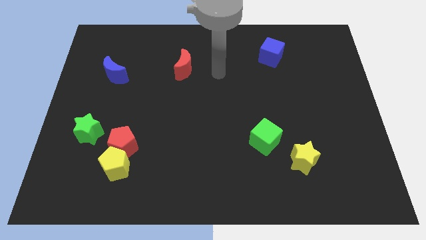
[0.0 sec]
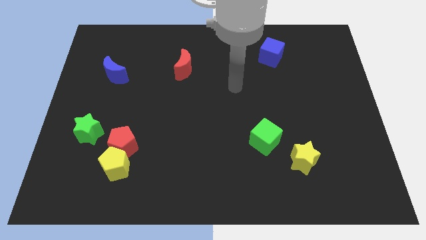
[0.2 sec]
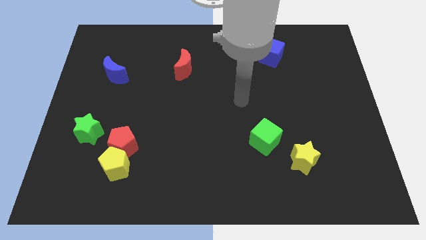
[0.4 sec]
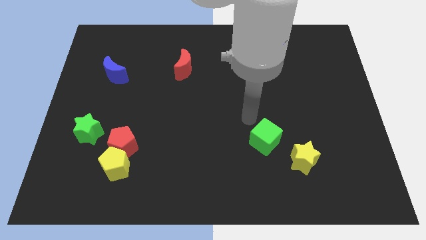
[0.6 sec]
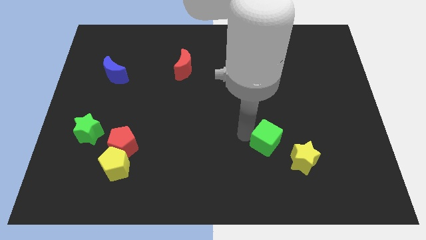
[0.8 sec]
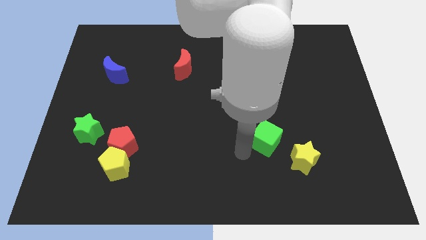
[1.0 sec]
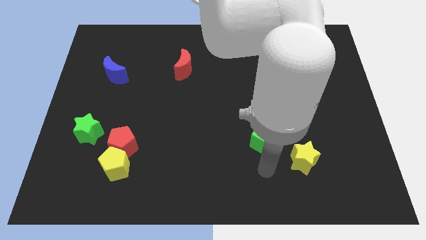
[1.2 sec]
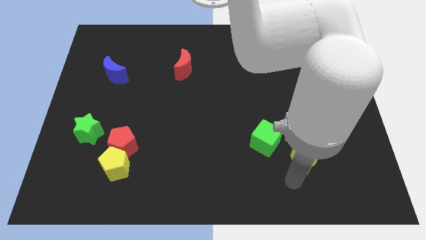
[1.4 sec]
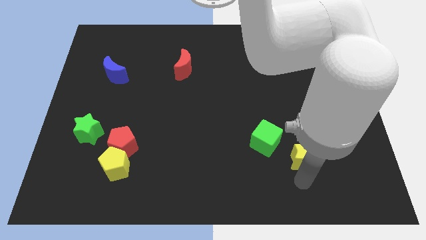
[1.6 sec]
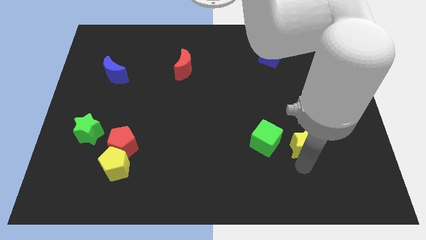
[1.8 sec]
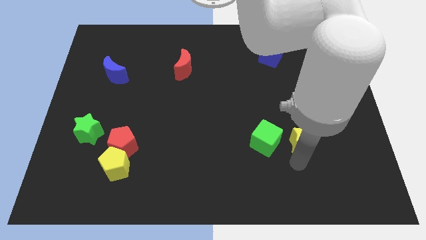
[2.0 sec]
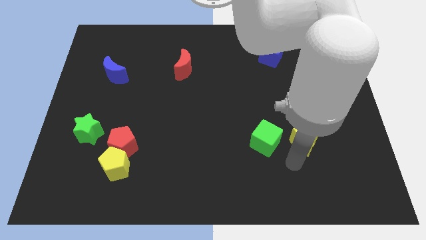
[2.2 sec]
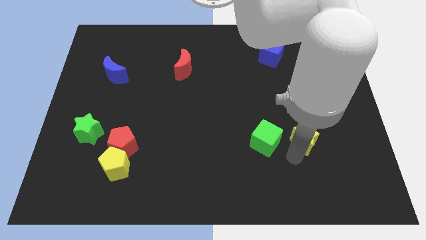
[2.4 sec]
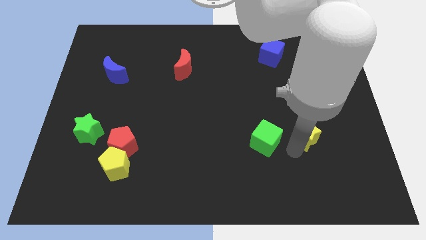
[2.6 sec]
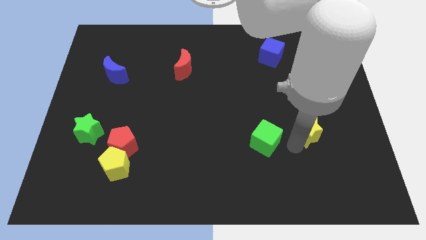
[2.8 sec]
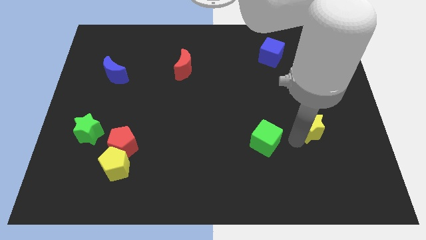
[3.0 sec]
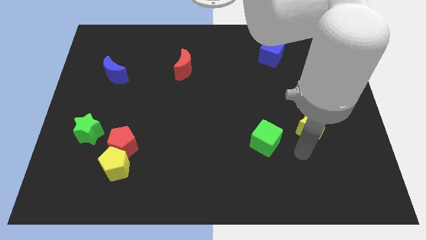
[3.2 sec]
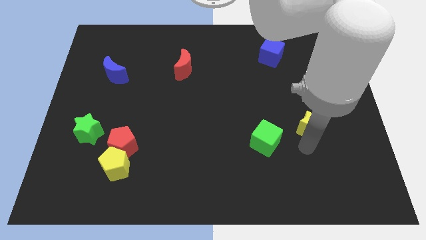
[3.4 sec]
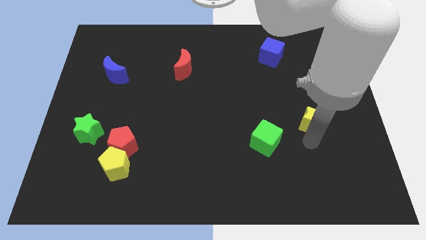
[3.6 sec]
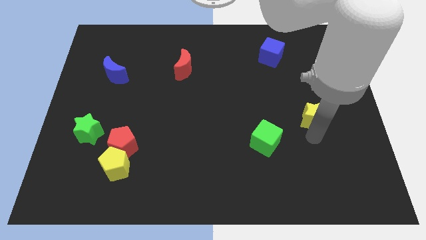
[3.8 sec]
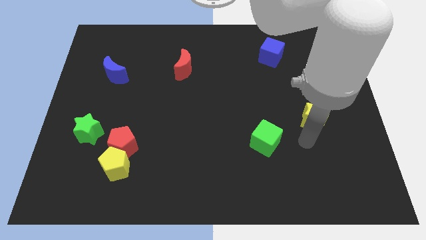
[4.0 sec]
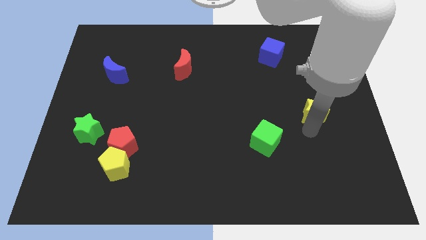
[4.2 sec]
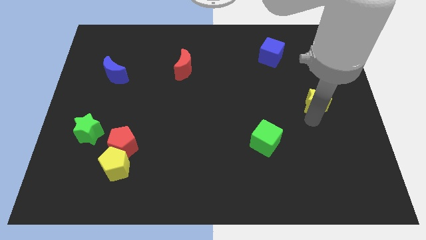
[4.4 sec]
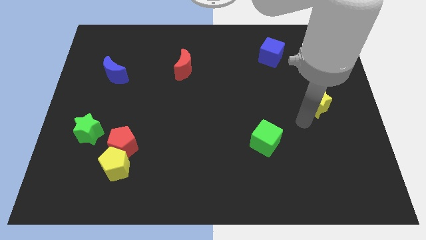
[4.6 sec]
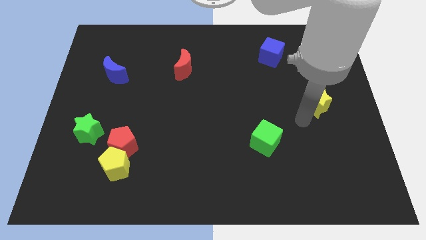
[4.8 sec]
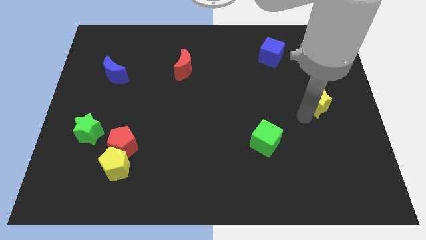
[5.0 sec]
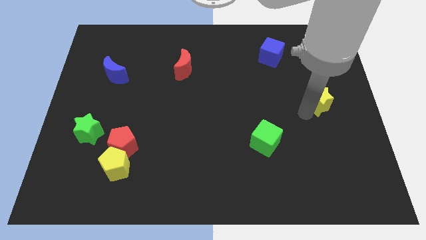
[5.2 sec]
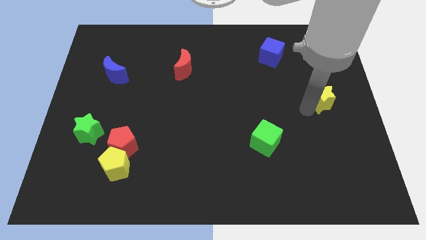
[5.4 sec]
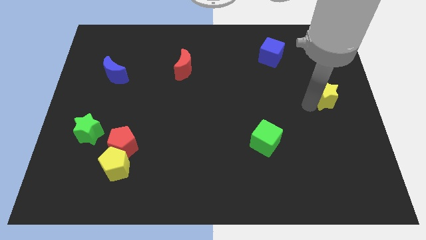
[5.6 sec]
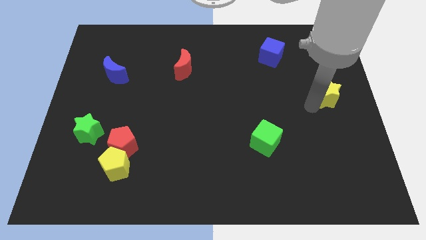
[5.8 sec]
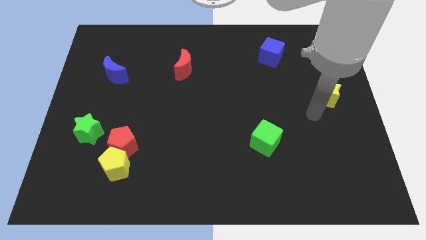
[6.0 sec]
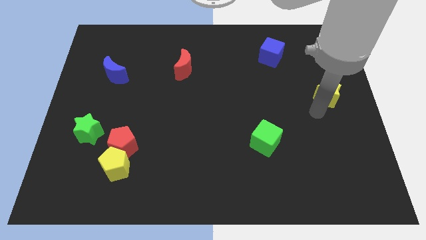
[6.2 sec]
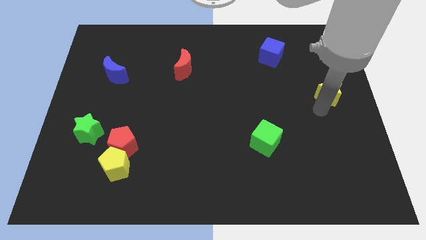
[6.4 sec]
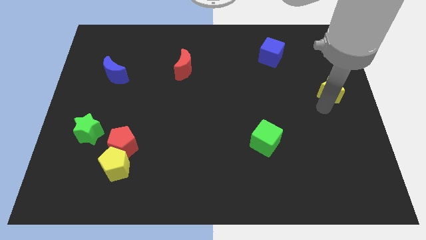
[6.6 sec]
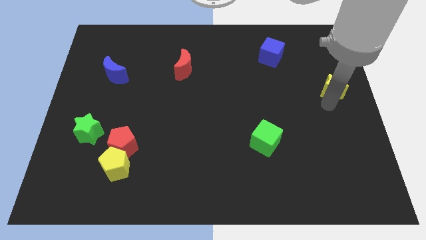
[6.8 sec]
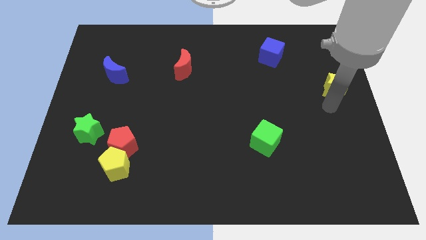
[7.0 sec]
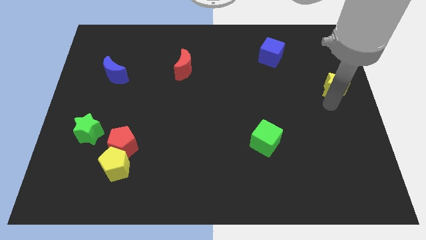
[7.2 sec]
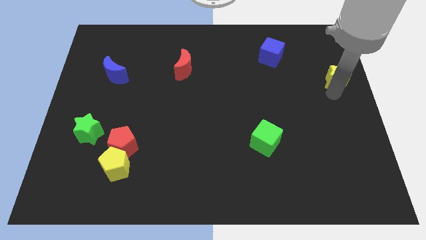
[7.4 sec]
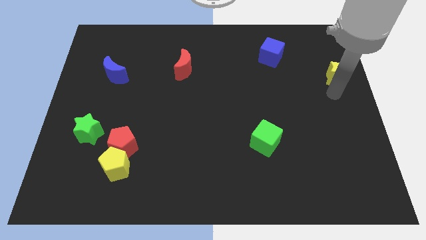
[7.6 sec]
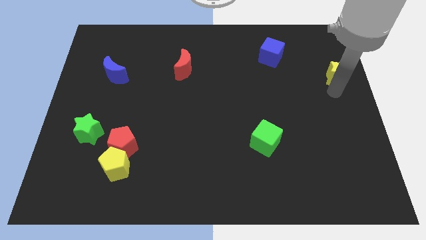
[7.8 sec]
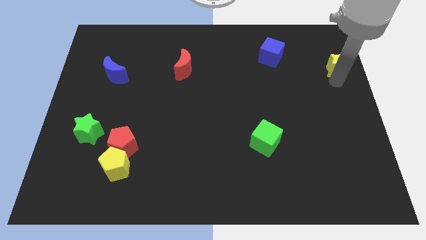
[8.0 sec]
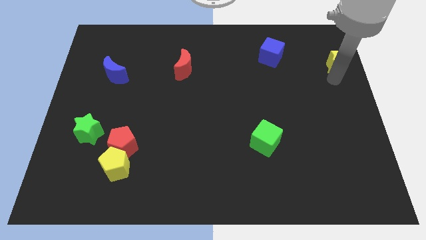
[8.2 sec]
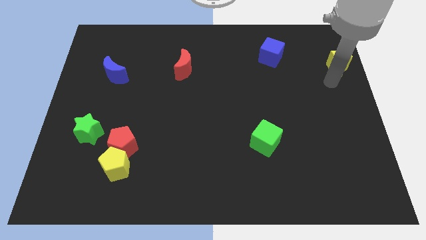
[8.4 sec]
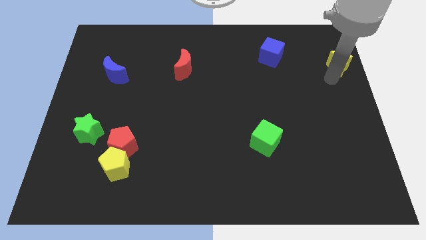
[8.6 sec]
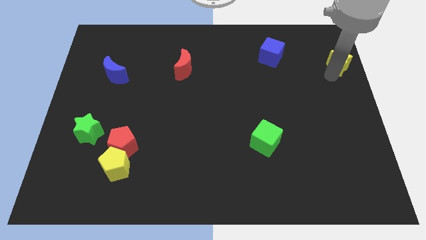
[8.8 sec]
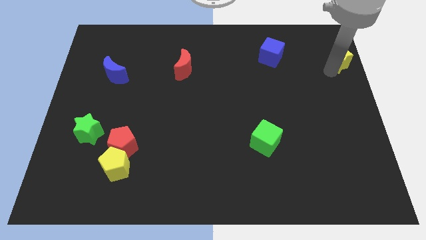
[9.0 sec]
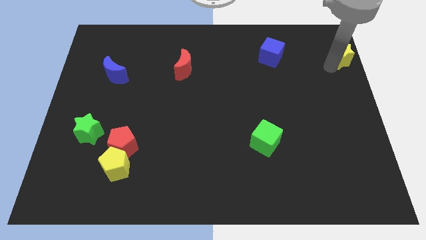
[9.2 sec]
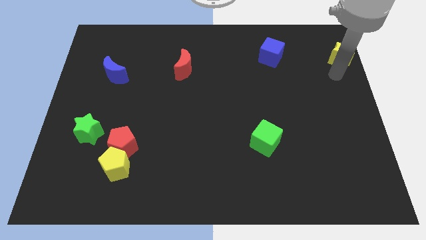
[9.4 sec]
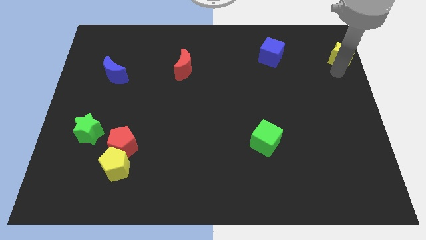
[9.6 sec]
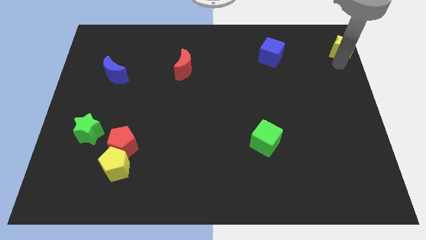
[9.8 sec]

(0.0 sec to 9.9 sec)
put the yellow star to the top right

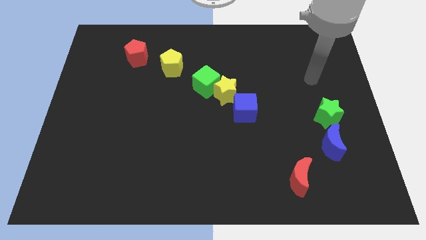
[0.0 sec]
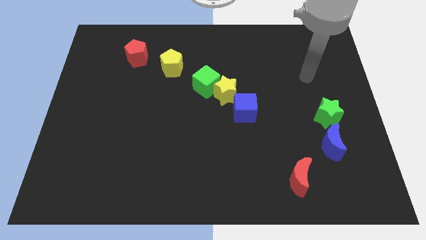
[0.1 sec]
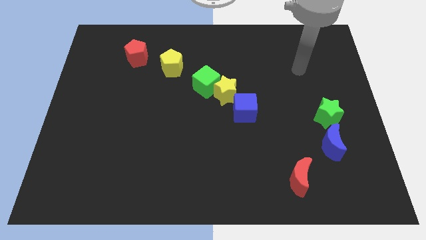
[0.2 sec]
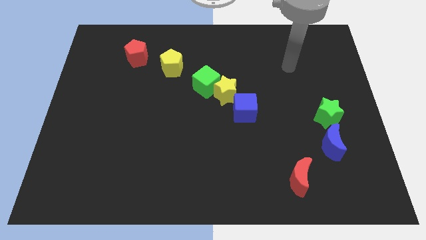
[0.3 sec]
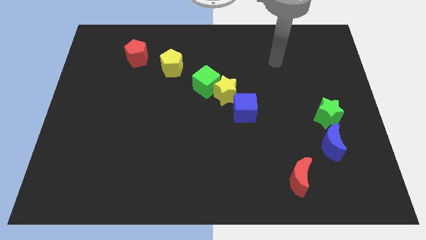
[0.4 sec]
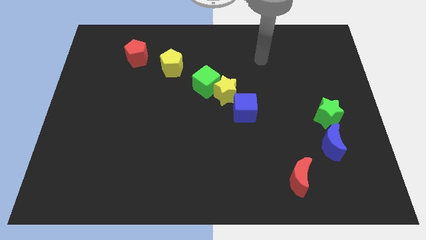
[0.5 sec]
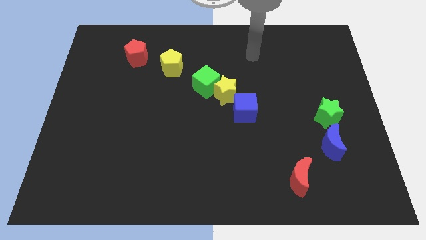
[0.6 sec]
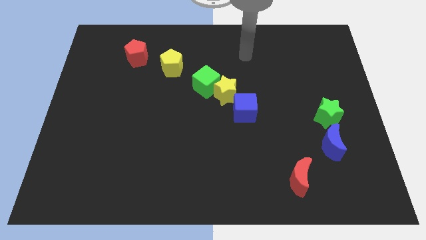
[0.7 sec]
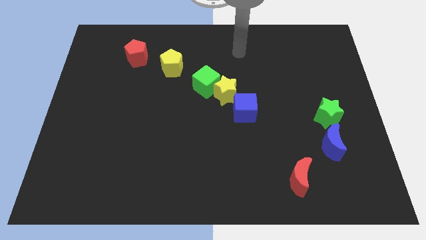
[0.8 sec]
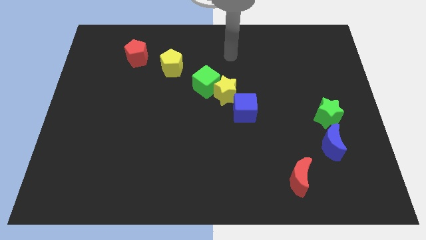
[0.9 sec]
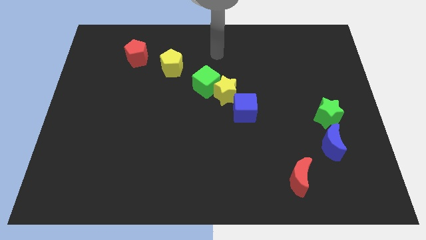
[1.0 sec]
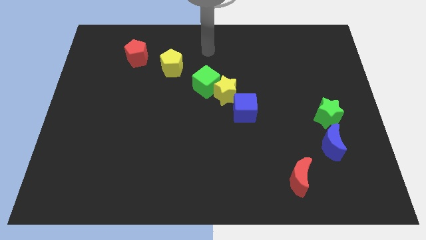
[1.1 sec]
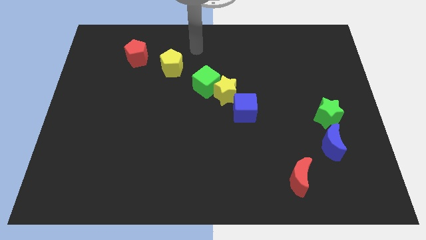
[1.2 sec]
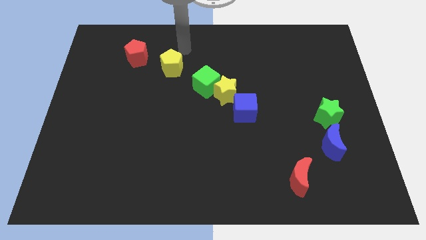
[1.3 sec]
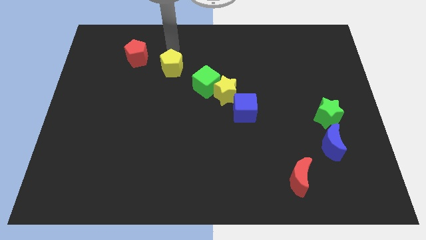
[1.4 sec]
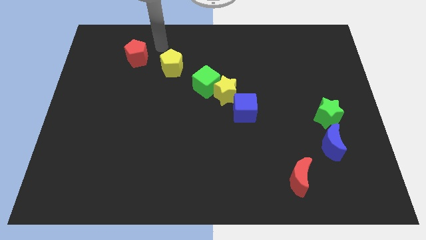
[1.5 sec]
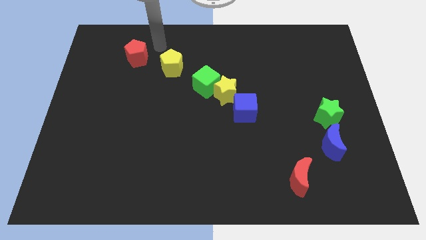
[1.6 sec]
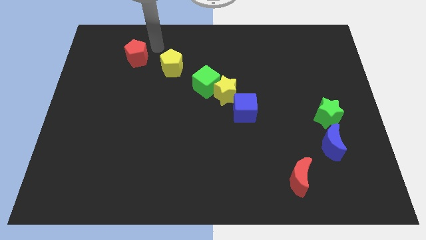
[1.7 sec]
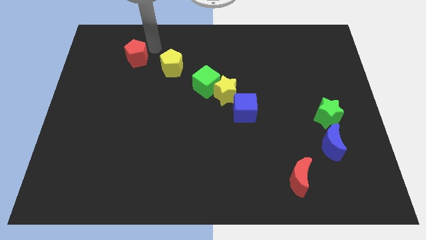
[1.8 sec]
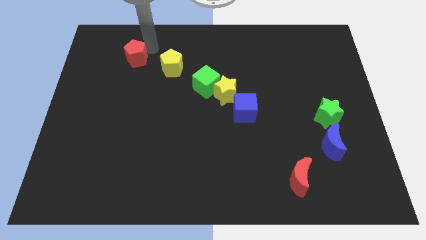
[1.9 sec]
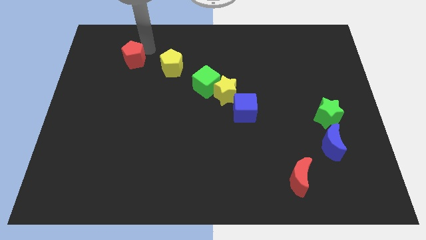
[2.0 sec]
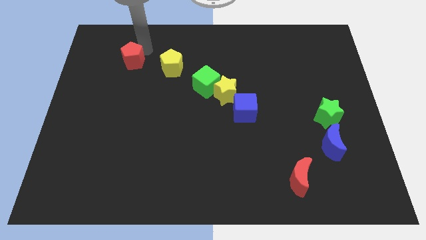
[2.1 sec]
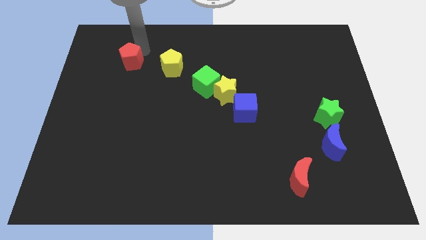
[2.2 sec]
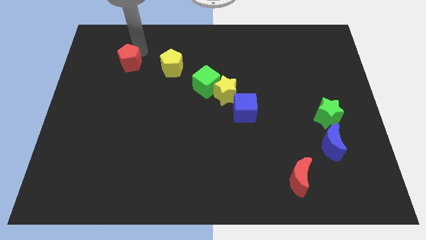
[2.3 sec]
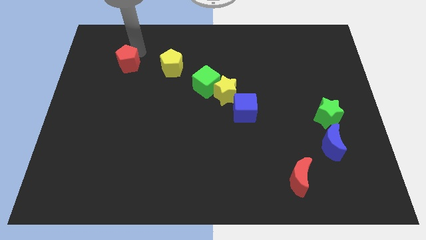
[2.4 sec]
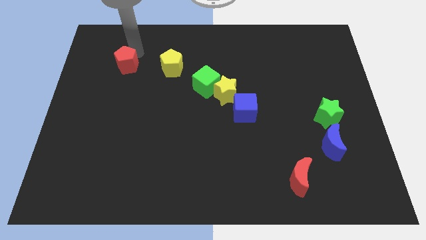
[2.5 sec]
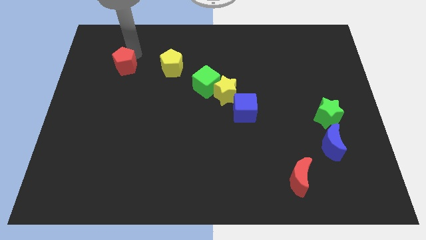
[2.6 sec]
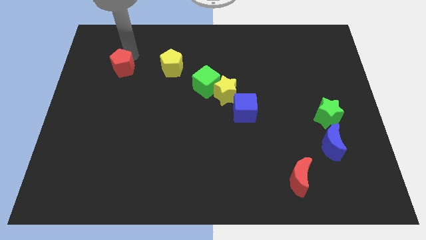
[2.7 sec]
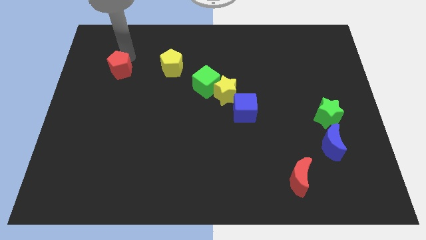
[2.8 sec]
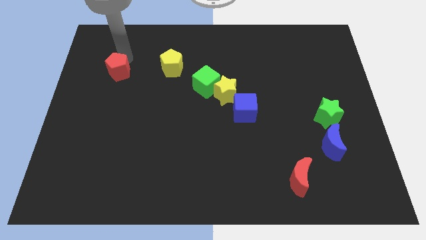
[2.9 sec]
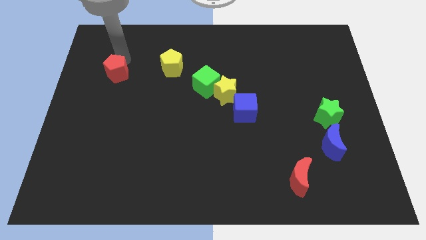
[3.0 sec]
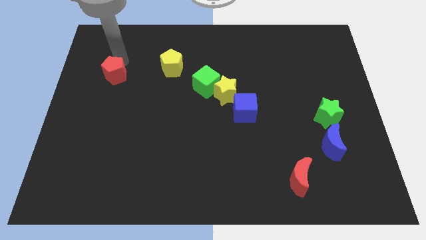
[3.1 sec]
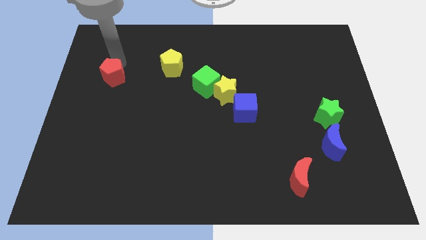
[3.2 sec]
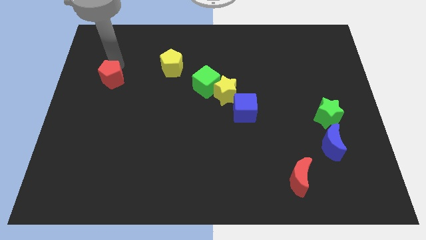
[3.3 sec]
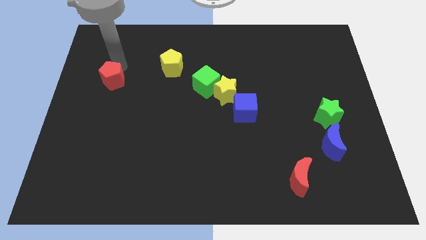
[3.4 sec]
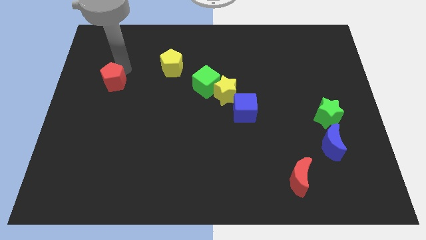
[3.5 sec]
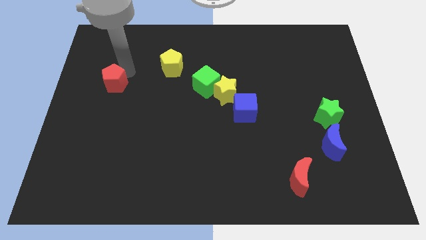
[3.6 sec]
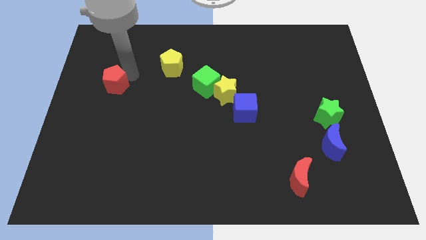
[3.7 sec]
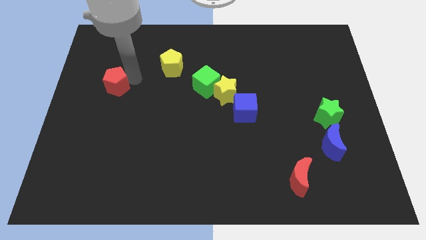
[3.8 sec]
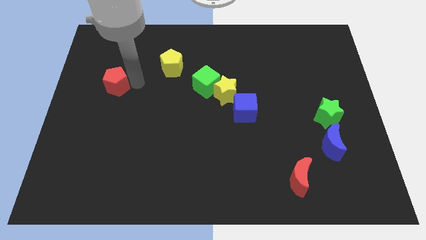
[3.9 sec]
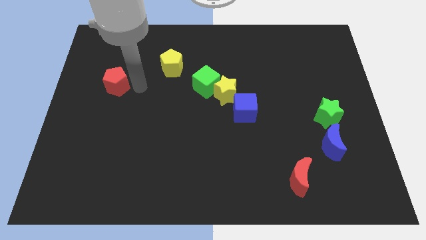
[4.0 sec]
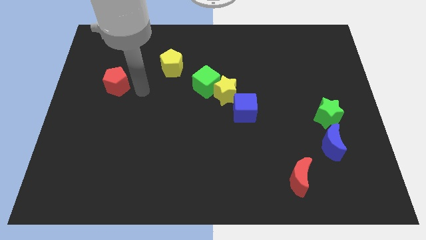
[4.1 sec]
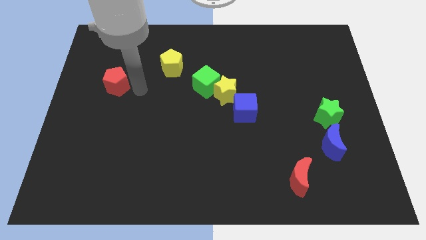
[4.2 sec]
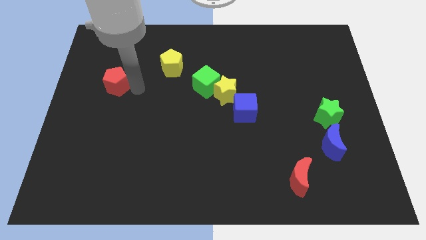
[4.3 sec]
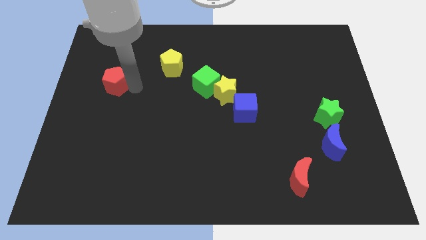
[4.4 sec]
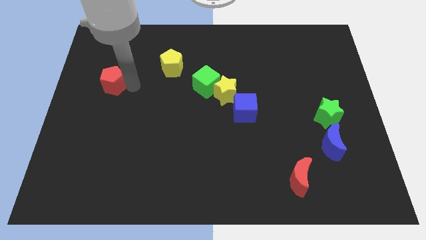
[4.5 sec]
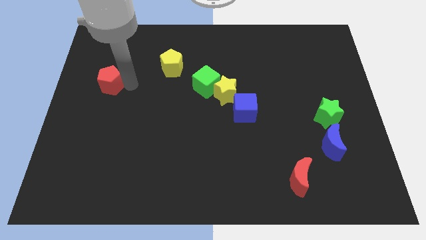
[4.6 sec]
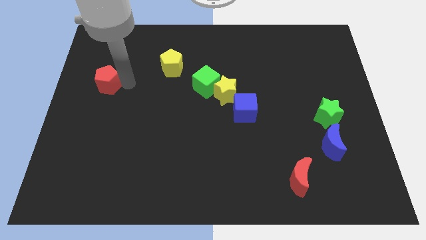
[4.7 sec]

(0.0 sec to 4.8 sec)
slide the red pentagon to the left side of the board
